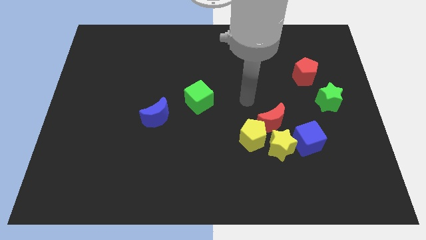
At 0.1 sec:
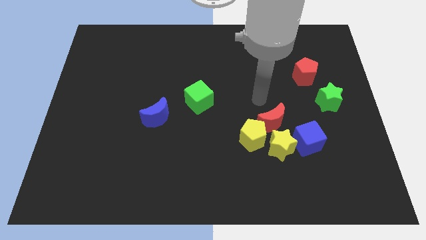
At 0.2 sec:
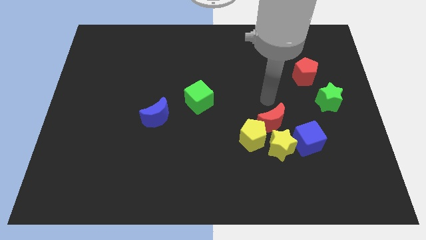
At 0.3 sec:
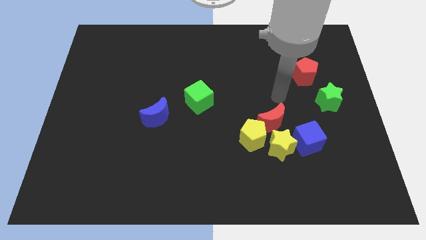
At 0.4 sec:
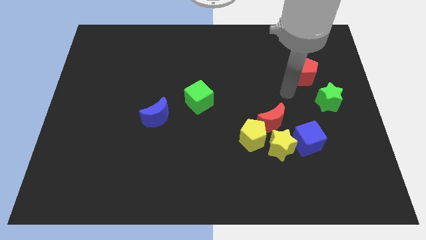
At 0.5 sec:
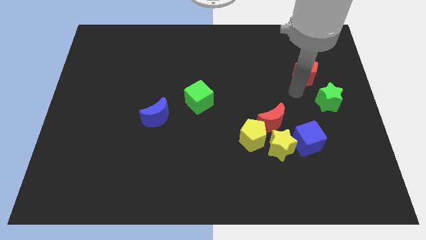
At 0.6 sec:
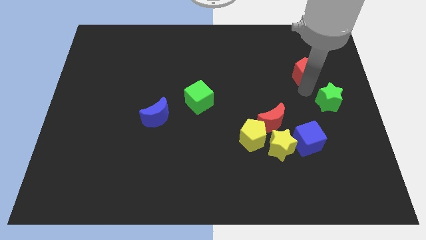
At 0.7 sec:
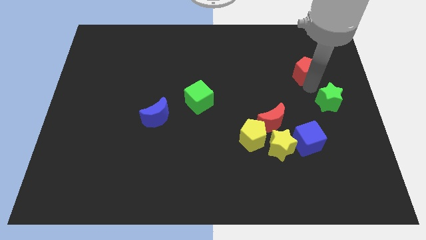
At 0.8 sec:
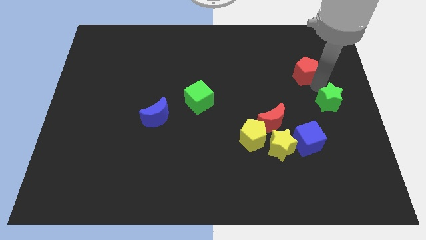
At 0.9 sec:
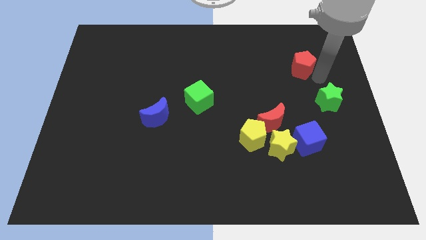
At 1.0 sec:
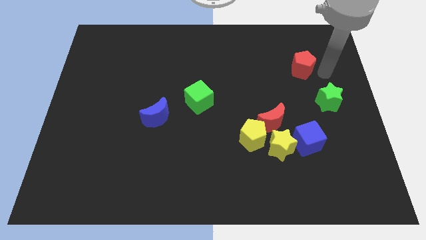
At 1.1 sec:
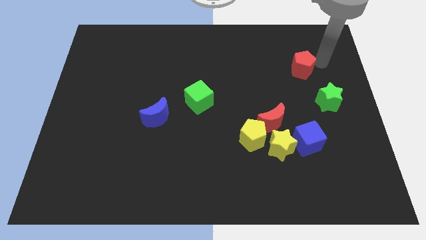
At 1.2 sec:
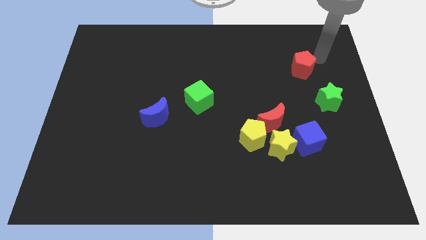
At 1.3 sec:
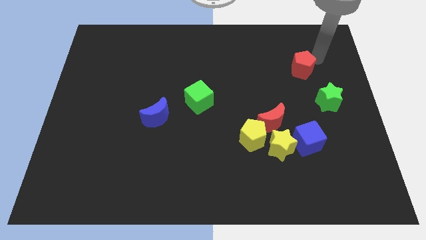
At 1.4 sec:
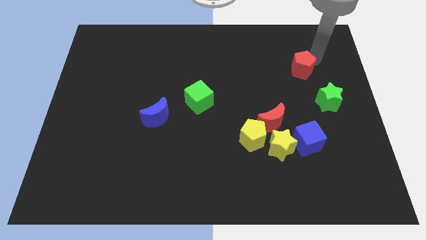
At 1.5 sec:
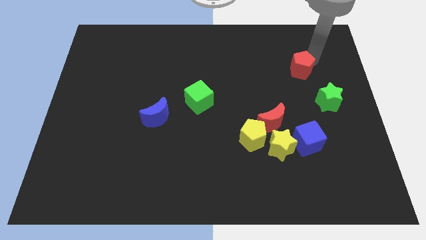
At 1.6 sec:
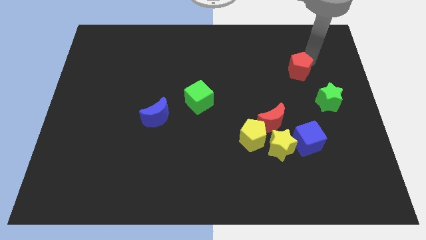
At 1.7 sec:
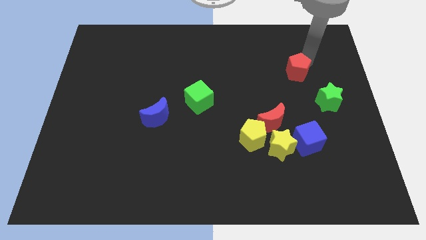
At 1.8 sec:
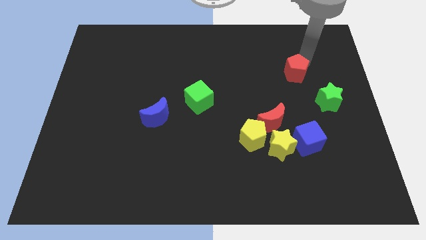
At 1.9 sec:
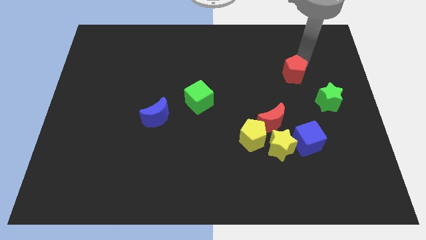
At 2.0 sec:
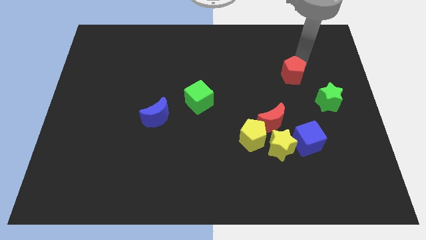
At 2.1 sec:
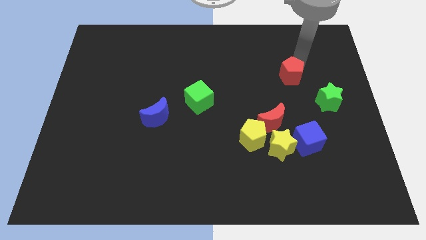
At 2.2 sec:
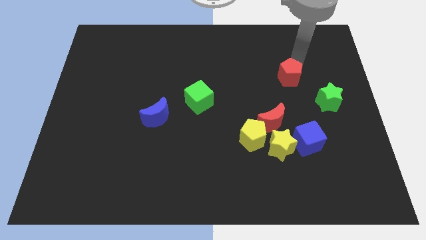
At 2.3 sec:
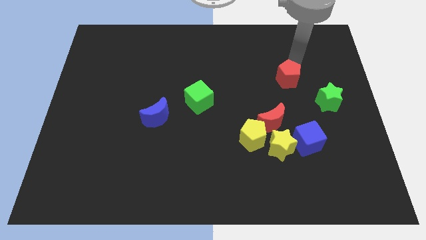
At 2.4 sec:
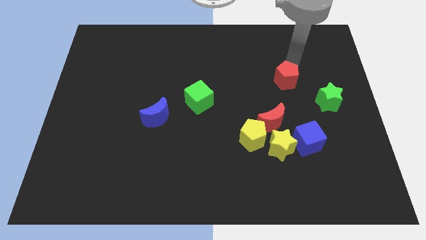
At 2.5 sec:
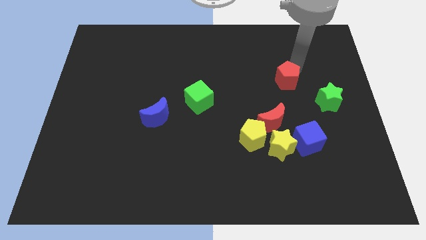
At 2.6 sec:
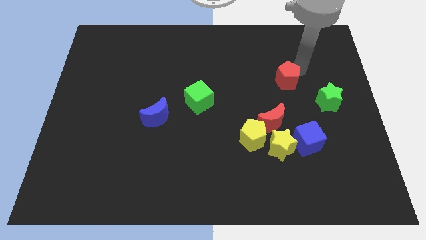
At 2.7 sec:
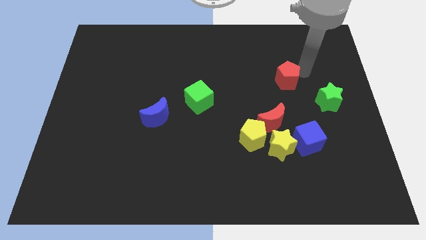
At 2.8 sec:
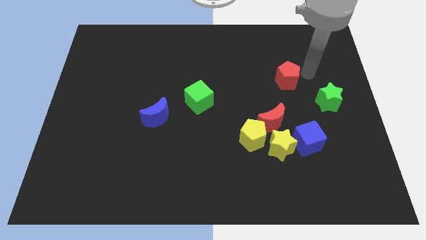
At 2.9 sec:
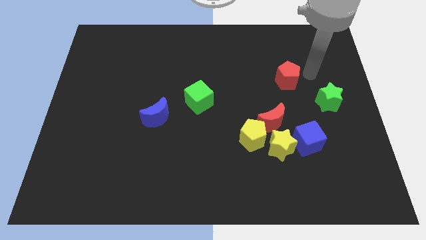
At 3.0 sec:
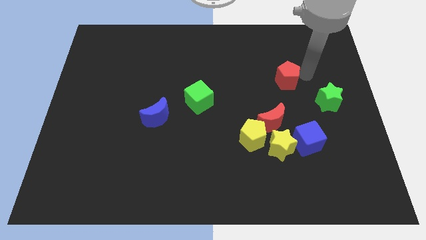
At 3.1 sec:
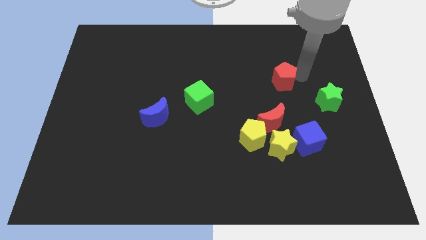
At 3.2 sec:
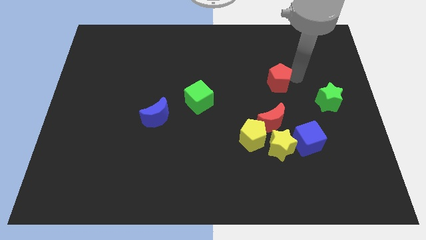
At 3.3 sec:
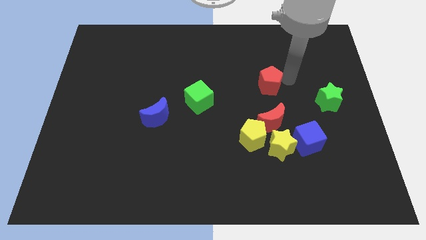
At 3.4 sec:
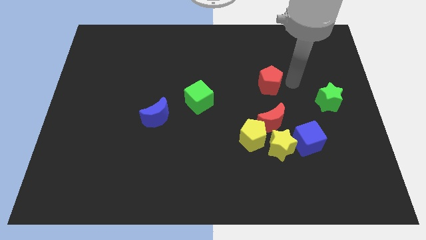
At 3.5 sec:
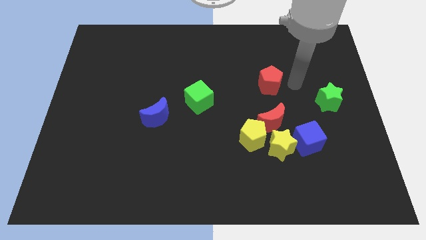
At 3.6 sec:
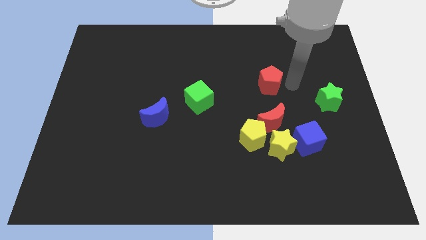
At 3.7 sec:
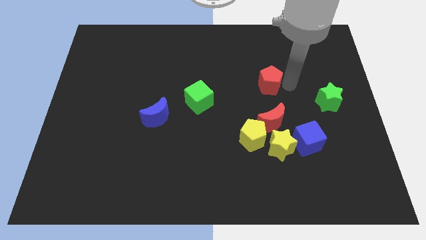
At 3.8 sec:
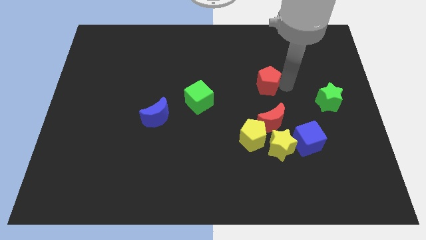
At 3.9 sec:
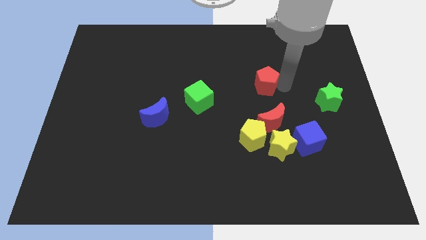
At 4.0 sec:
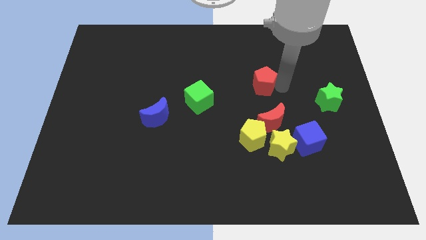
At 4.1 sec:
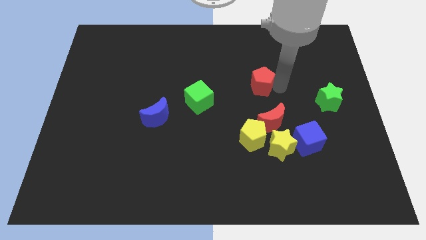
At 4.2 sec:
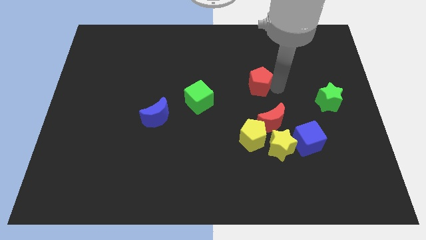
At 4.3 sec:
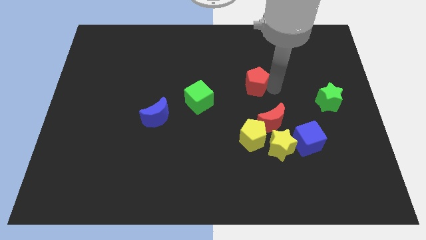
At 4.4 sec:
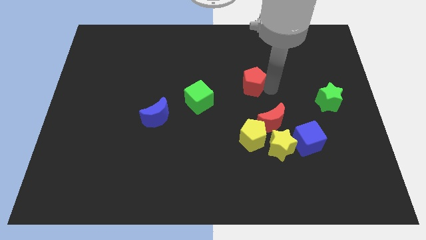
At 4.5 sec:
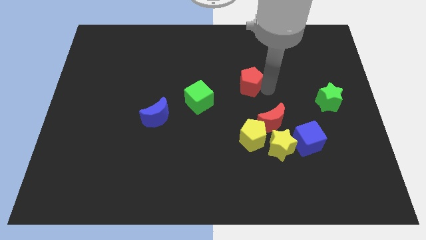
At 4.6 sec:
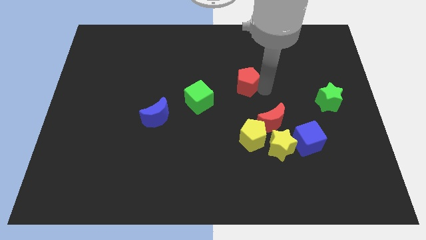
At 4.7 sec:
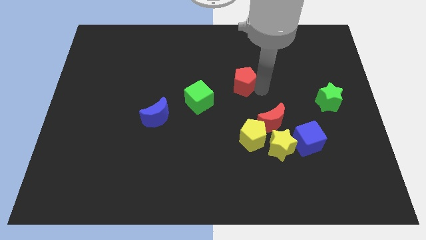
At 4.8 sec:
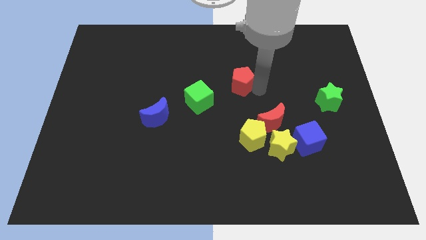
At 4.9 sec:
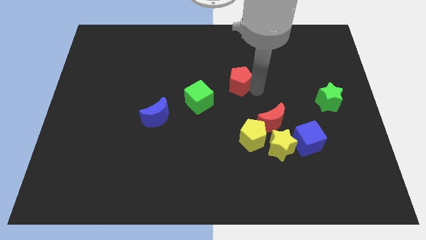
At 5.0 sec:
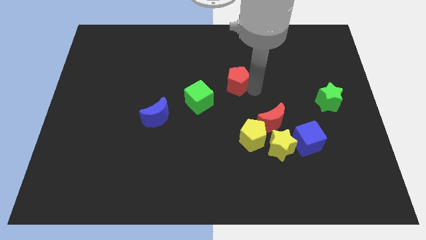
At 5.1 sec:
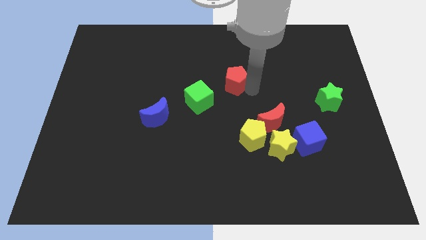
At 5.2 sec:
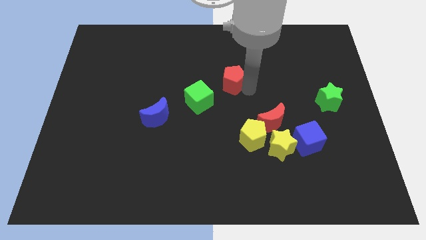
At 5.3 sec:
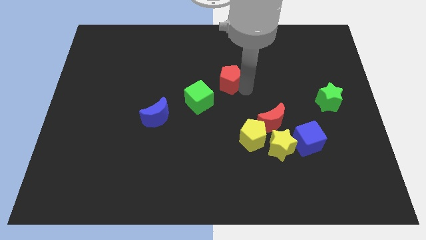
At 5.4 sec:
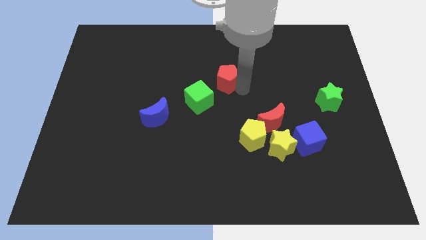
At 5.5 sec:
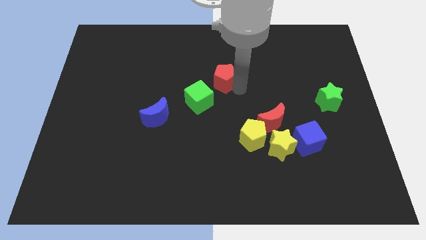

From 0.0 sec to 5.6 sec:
push the red pentagon to the left

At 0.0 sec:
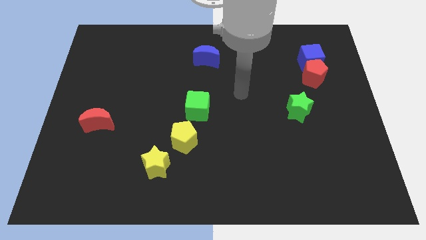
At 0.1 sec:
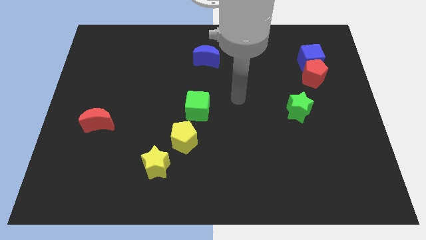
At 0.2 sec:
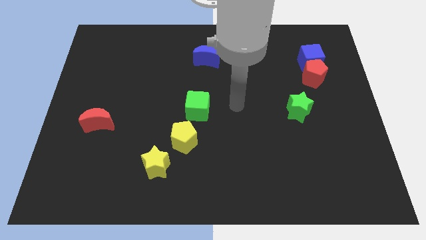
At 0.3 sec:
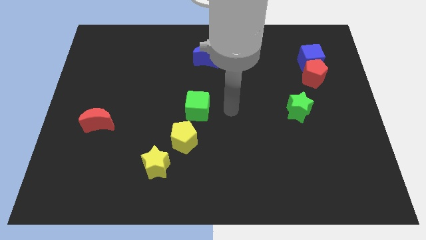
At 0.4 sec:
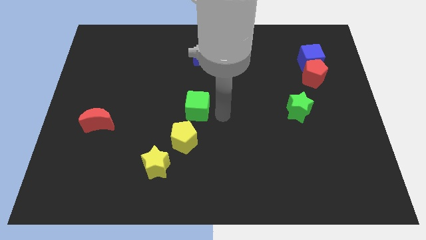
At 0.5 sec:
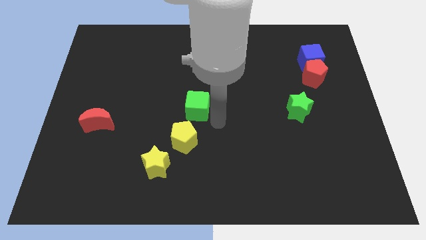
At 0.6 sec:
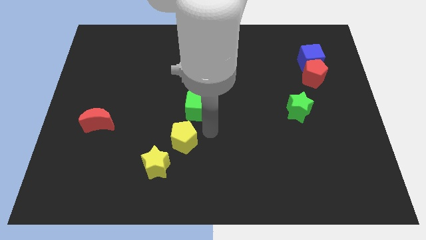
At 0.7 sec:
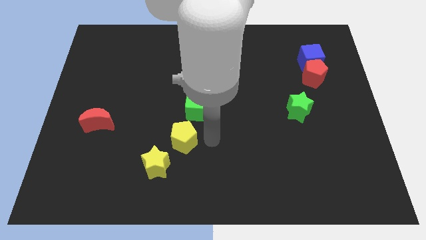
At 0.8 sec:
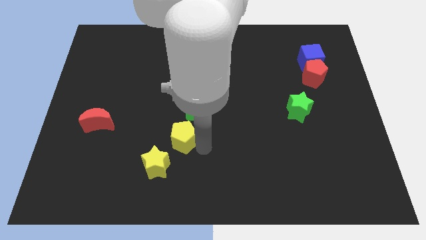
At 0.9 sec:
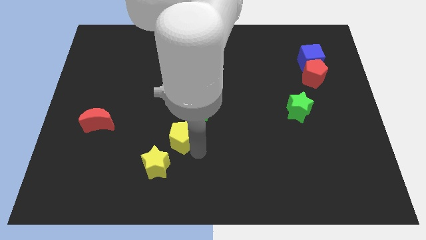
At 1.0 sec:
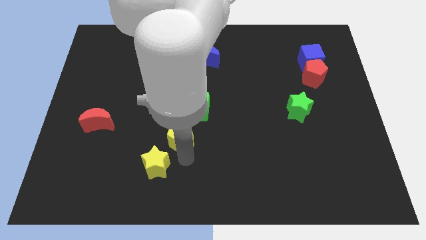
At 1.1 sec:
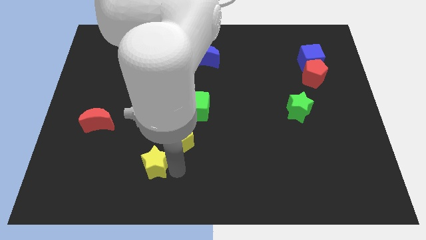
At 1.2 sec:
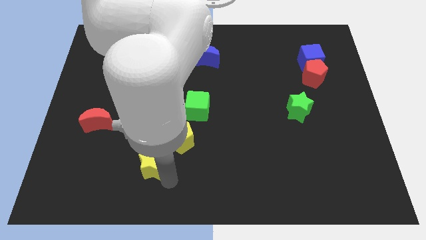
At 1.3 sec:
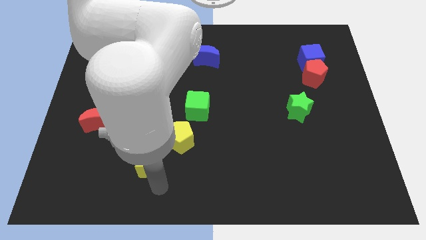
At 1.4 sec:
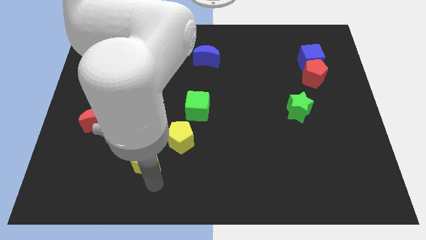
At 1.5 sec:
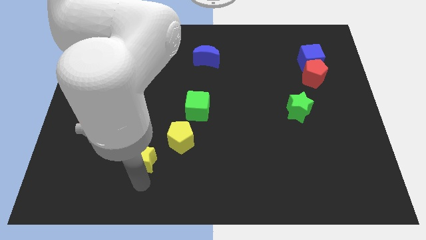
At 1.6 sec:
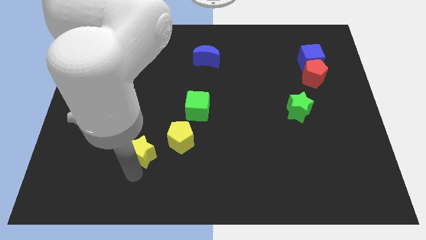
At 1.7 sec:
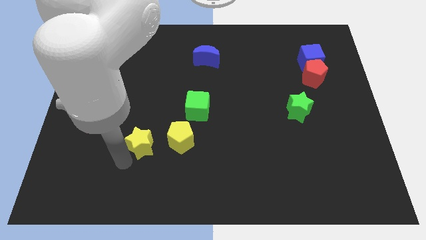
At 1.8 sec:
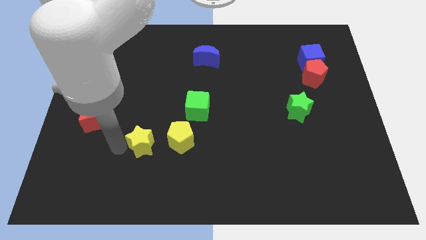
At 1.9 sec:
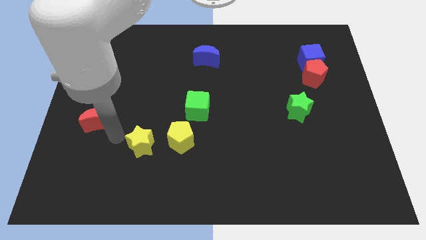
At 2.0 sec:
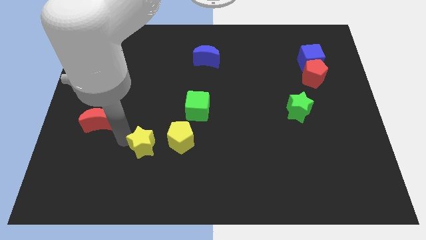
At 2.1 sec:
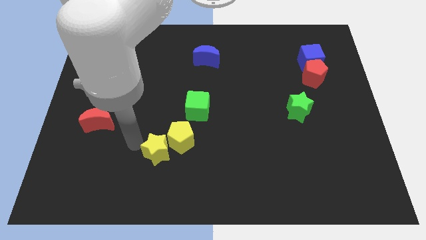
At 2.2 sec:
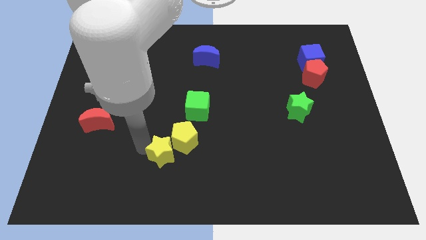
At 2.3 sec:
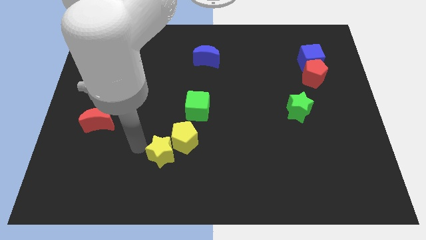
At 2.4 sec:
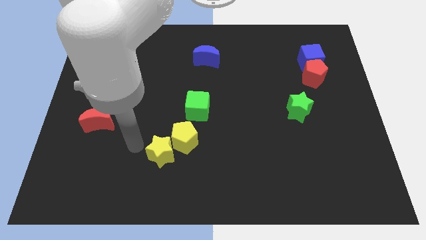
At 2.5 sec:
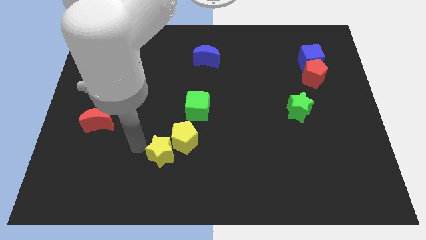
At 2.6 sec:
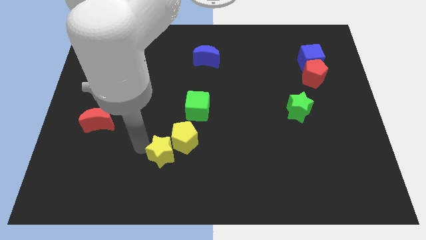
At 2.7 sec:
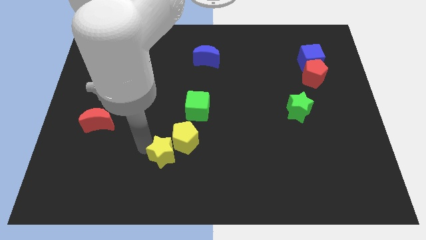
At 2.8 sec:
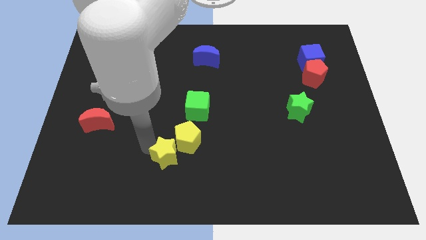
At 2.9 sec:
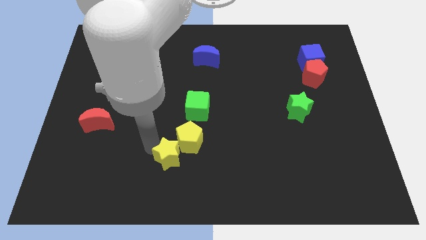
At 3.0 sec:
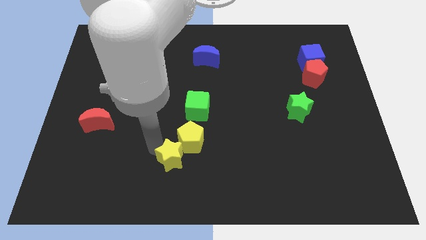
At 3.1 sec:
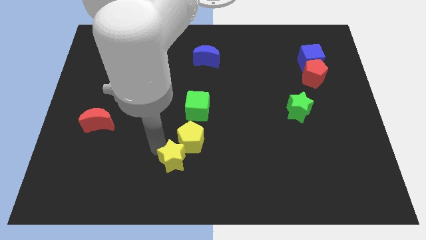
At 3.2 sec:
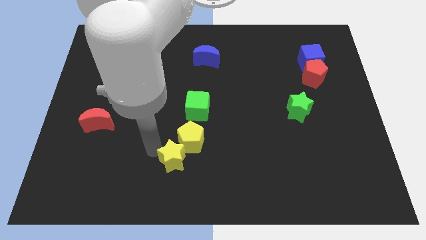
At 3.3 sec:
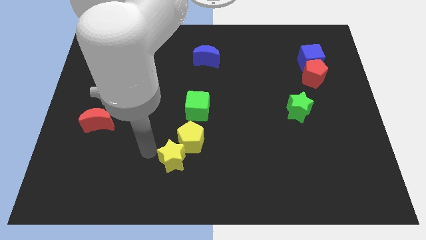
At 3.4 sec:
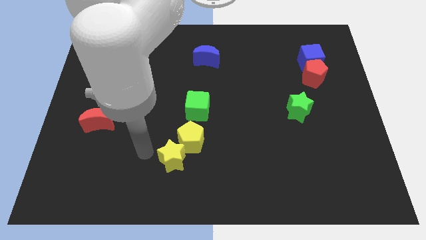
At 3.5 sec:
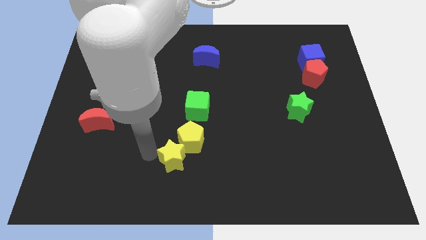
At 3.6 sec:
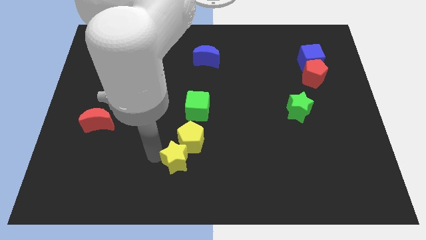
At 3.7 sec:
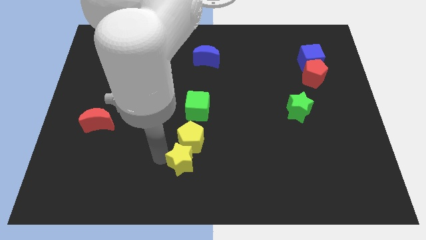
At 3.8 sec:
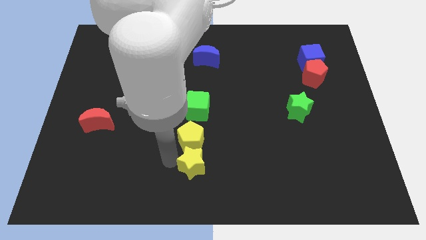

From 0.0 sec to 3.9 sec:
push the yellow star right a little bit
